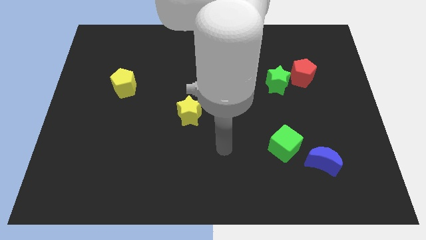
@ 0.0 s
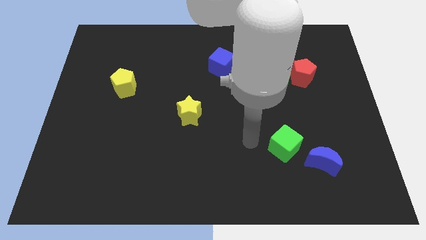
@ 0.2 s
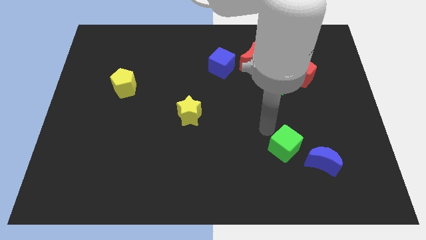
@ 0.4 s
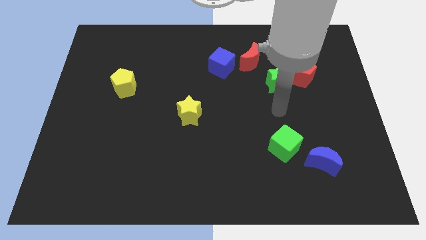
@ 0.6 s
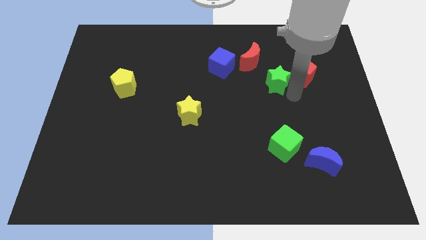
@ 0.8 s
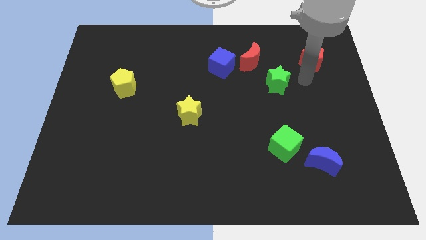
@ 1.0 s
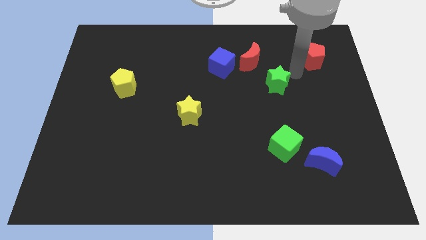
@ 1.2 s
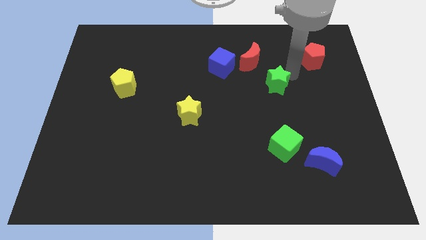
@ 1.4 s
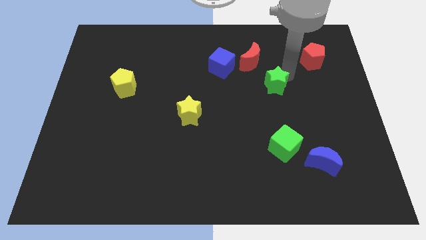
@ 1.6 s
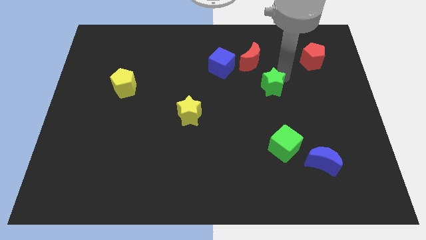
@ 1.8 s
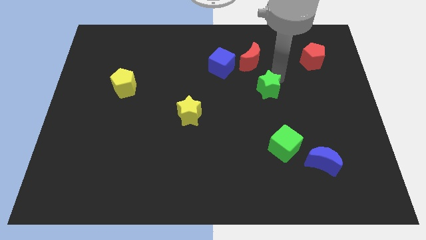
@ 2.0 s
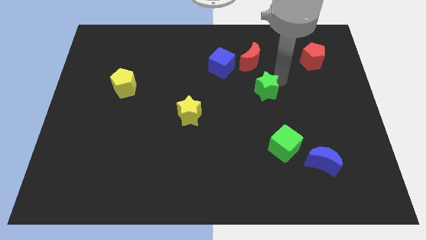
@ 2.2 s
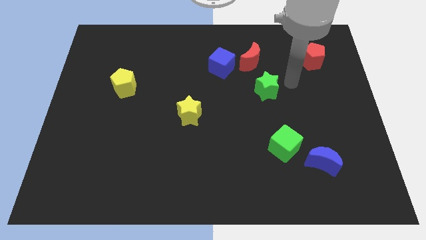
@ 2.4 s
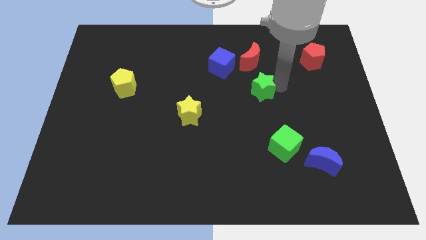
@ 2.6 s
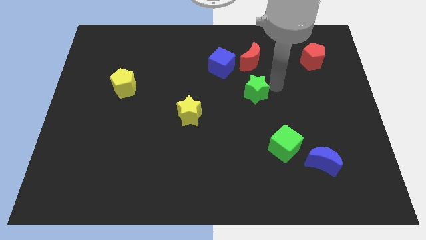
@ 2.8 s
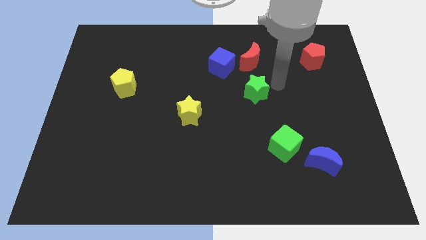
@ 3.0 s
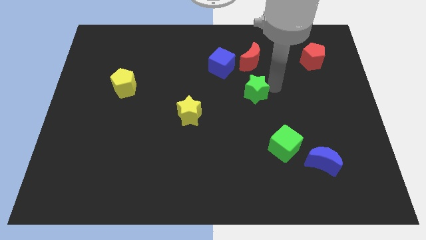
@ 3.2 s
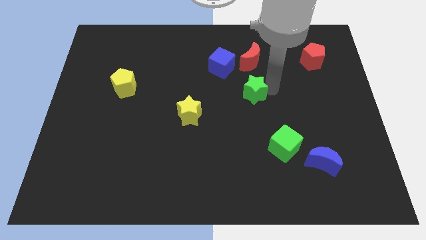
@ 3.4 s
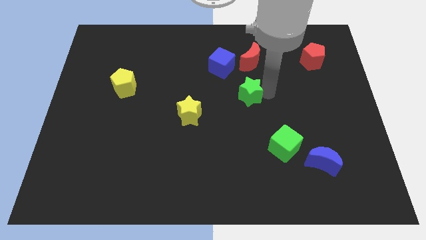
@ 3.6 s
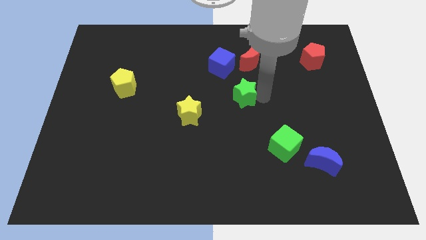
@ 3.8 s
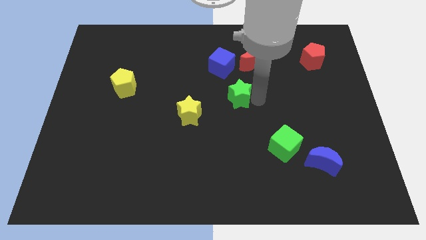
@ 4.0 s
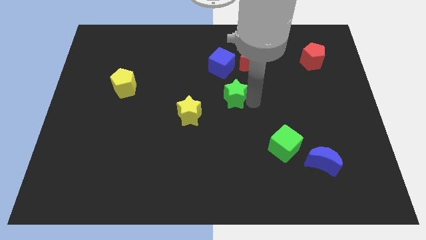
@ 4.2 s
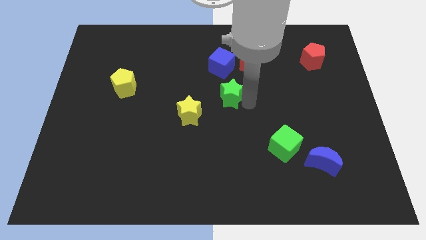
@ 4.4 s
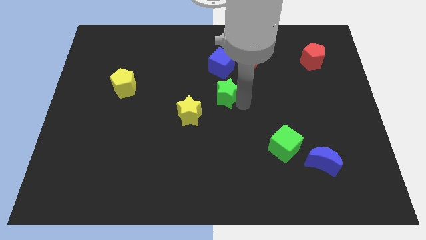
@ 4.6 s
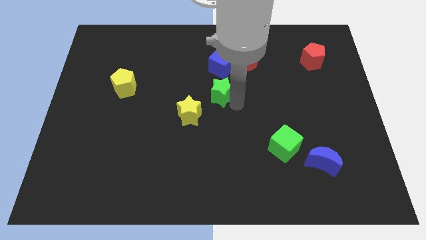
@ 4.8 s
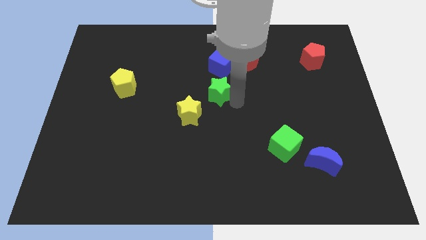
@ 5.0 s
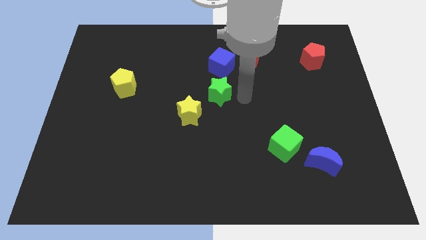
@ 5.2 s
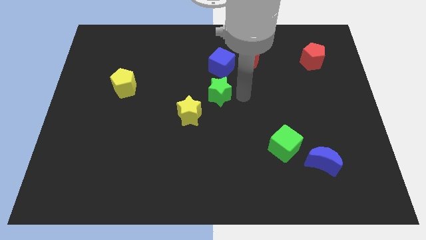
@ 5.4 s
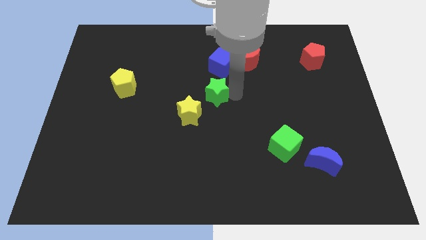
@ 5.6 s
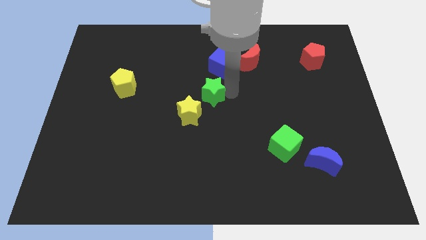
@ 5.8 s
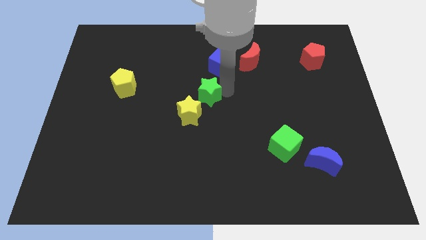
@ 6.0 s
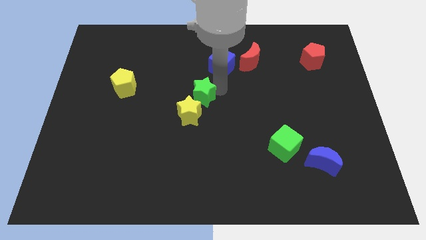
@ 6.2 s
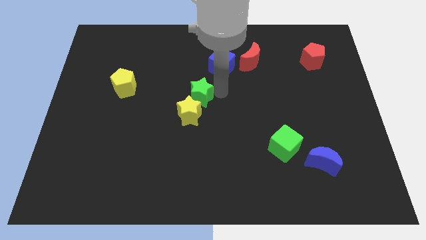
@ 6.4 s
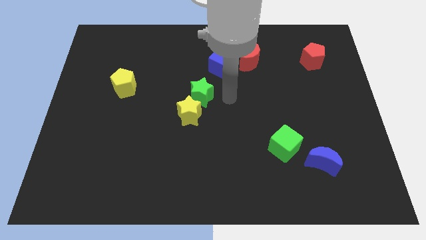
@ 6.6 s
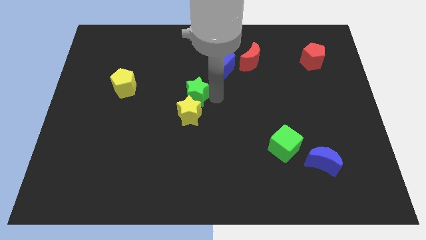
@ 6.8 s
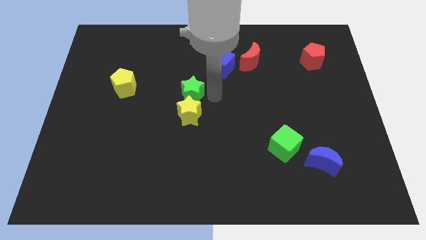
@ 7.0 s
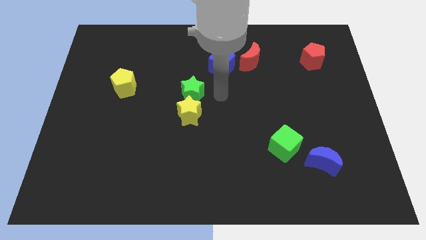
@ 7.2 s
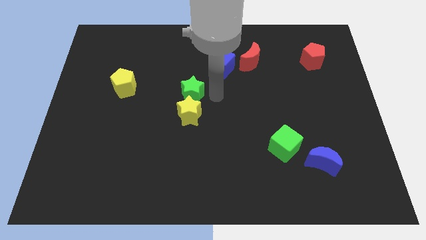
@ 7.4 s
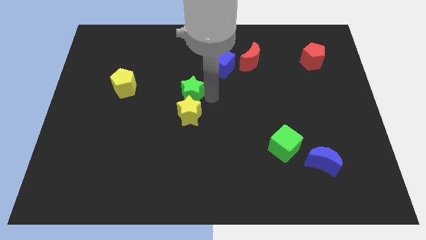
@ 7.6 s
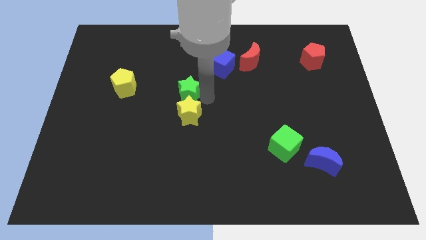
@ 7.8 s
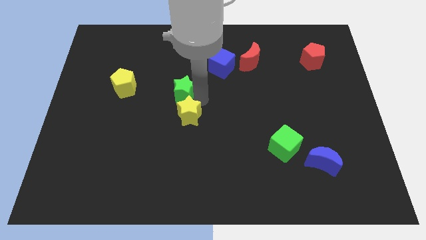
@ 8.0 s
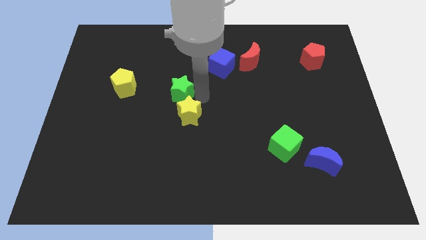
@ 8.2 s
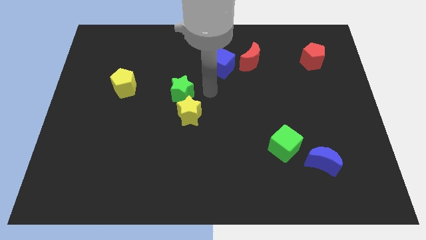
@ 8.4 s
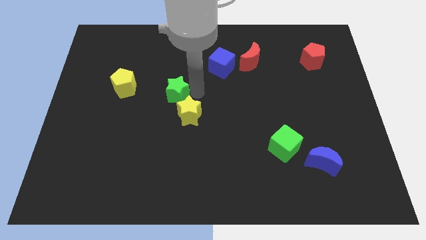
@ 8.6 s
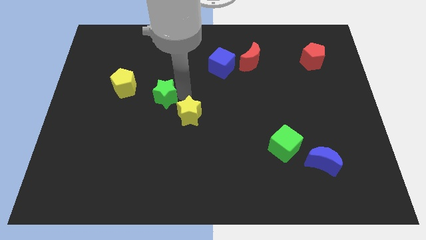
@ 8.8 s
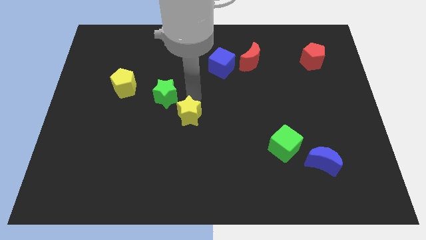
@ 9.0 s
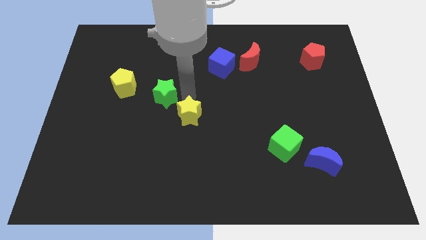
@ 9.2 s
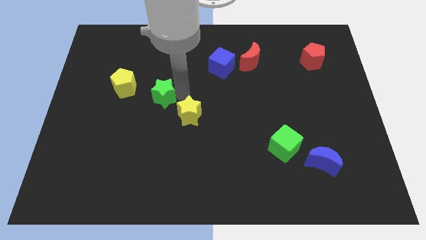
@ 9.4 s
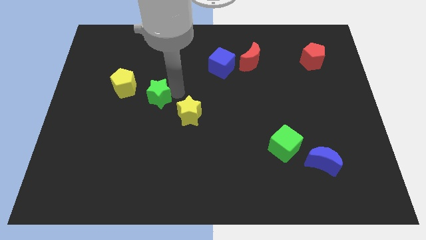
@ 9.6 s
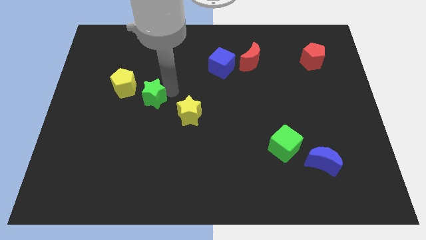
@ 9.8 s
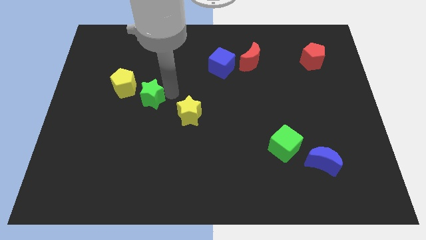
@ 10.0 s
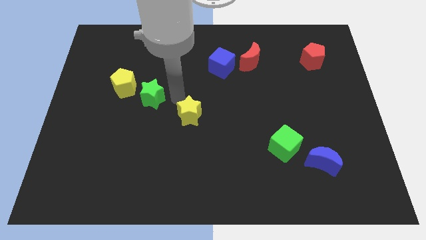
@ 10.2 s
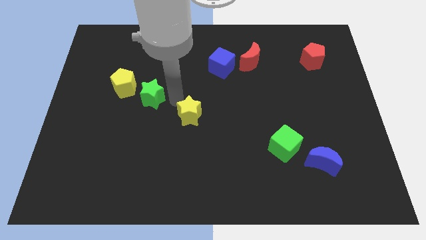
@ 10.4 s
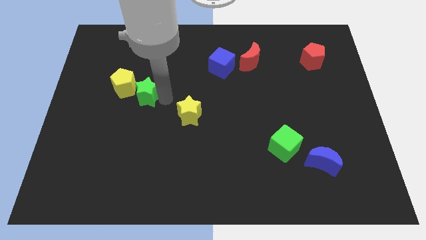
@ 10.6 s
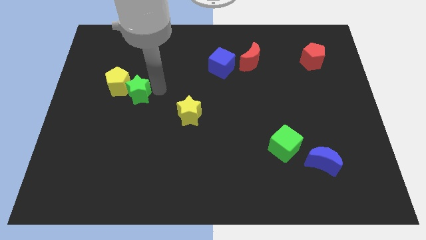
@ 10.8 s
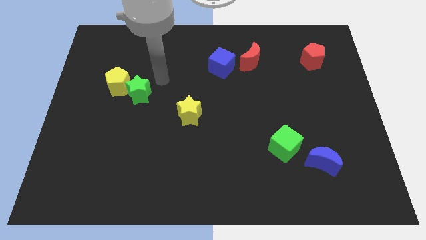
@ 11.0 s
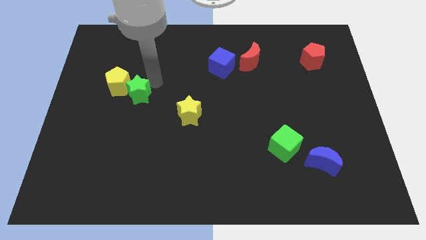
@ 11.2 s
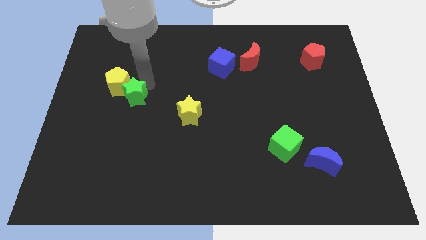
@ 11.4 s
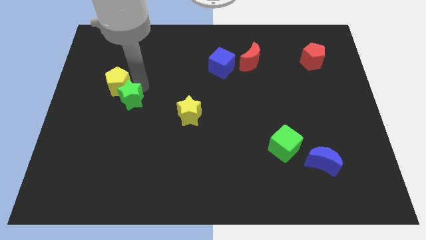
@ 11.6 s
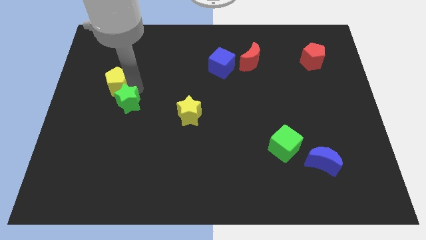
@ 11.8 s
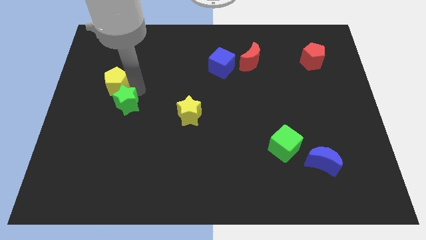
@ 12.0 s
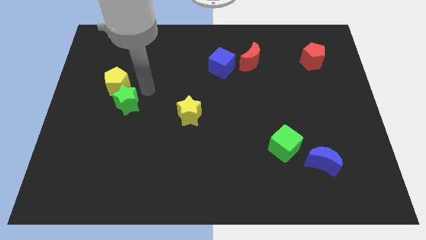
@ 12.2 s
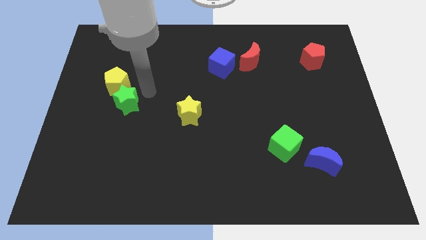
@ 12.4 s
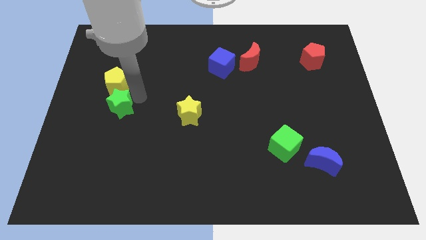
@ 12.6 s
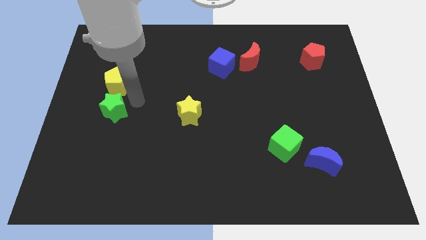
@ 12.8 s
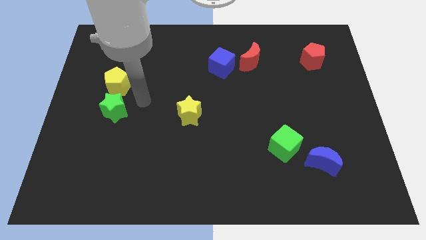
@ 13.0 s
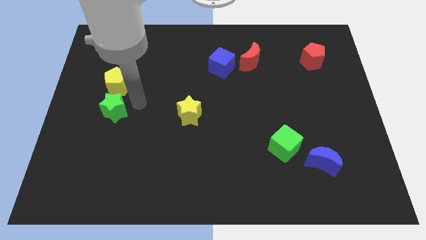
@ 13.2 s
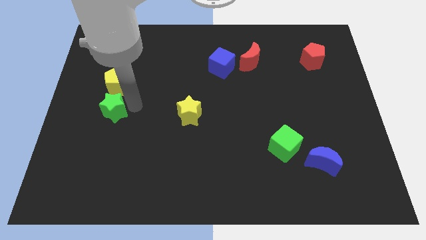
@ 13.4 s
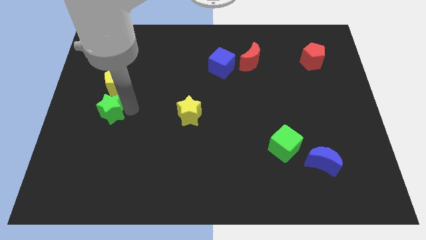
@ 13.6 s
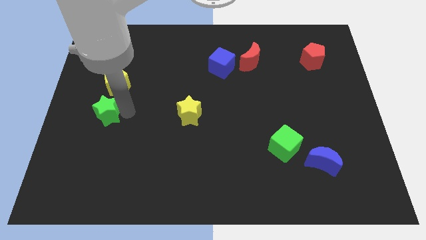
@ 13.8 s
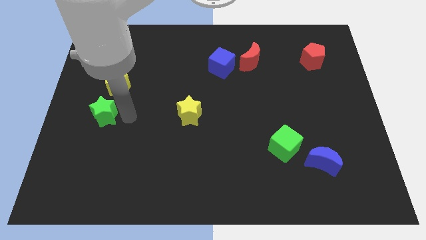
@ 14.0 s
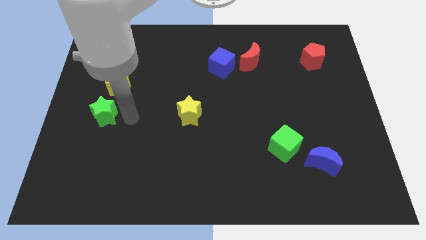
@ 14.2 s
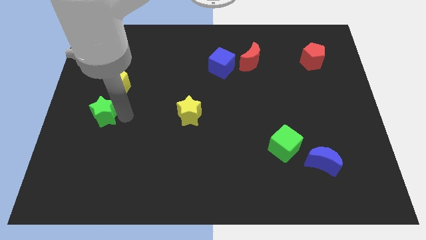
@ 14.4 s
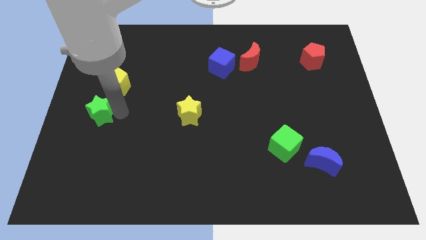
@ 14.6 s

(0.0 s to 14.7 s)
slide the green star to the left side of the board
